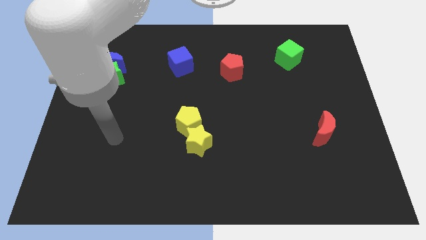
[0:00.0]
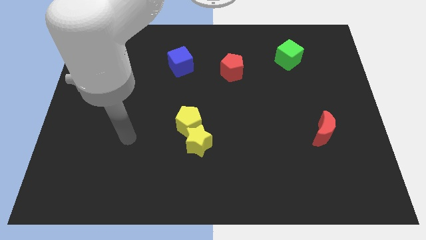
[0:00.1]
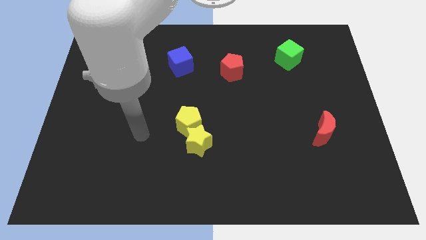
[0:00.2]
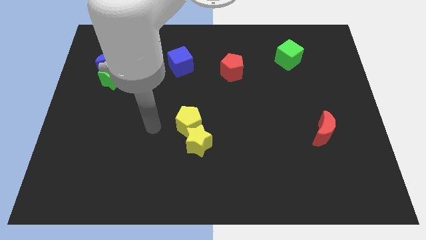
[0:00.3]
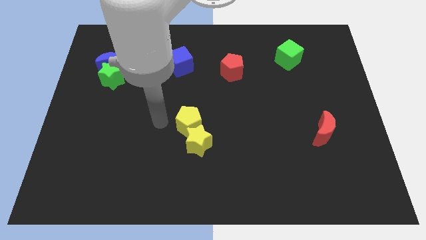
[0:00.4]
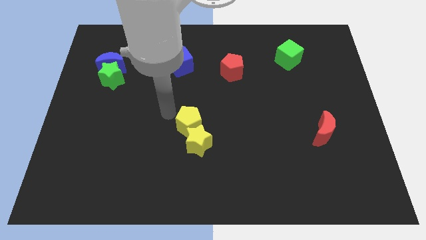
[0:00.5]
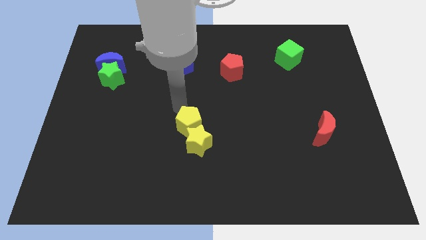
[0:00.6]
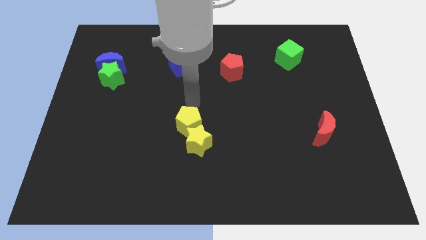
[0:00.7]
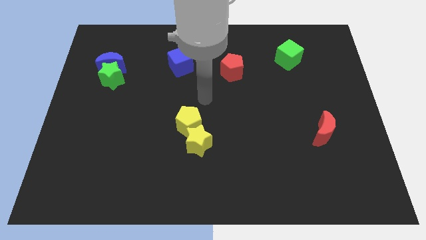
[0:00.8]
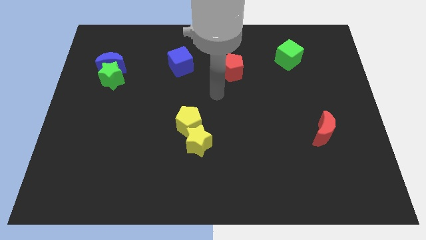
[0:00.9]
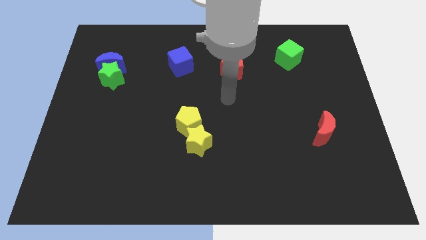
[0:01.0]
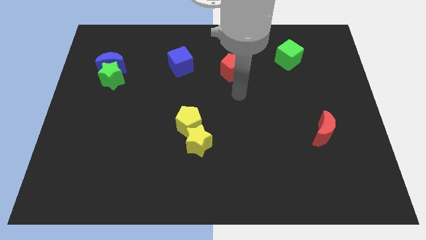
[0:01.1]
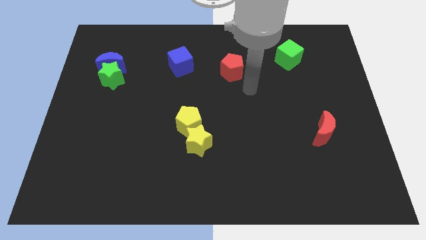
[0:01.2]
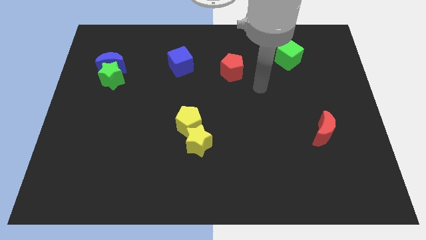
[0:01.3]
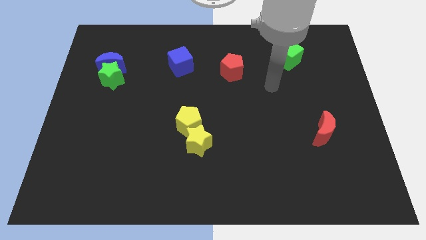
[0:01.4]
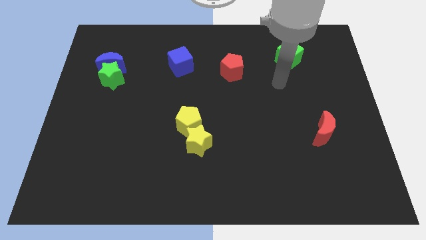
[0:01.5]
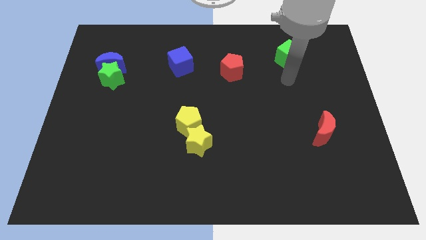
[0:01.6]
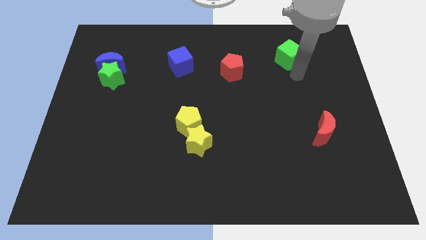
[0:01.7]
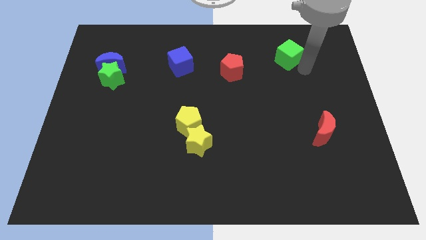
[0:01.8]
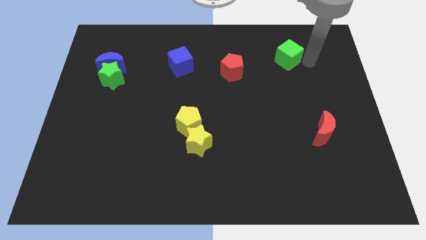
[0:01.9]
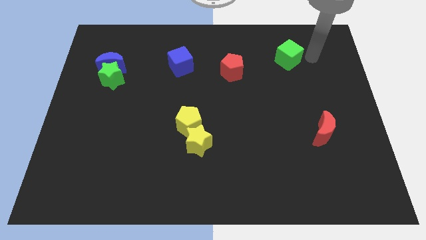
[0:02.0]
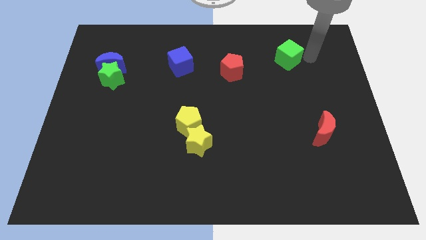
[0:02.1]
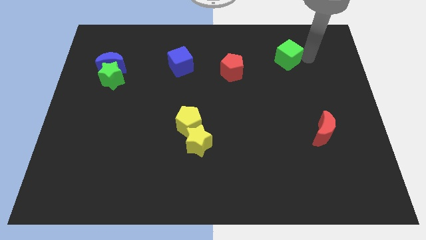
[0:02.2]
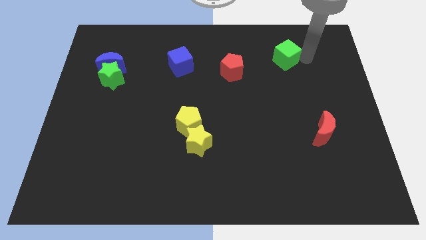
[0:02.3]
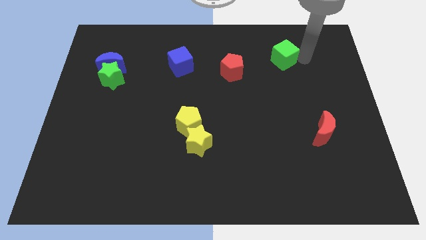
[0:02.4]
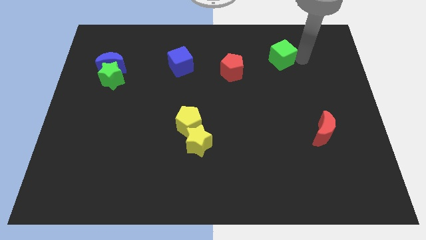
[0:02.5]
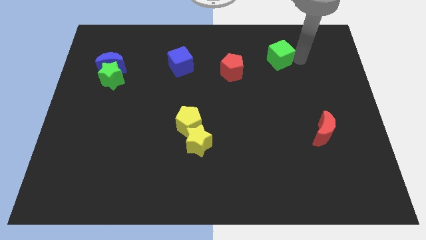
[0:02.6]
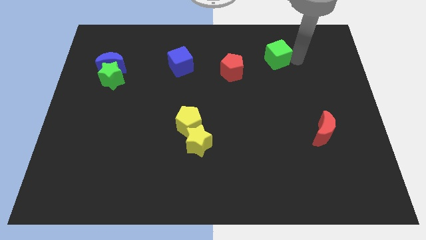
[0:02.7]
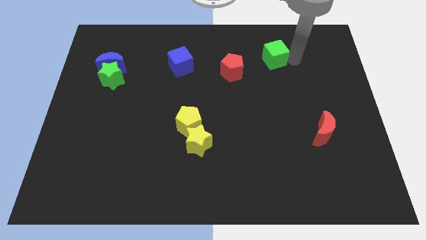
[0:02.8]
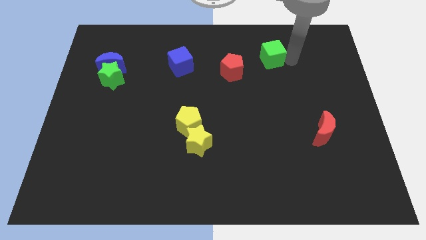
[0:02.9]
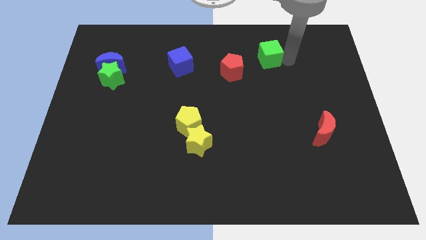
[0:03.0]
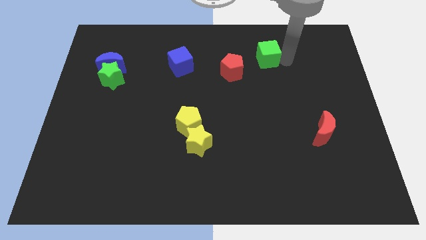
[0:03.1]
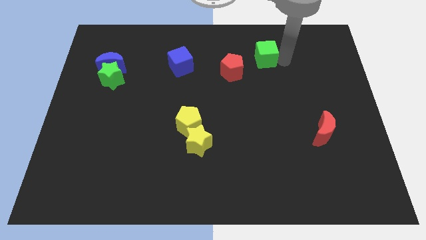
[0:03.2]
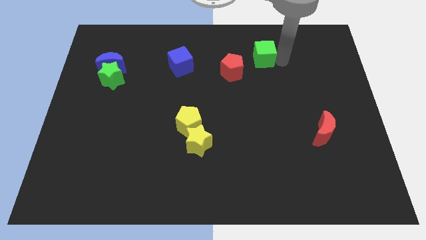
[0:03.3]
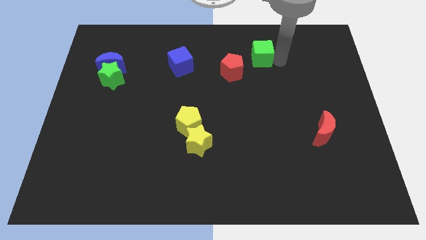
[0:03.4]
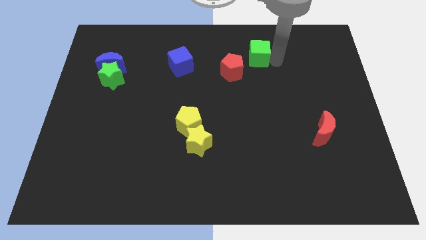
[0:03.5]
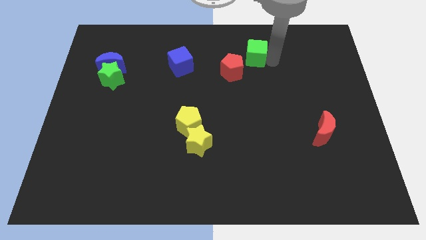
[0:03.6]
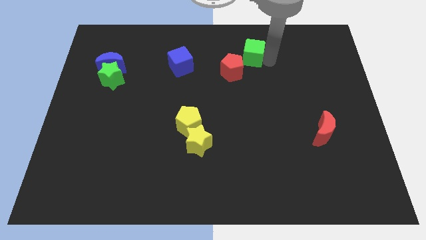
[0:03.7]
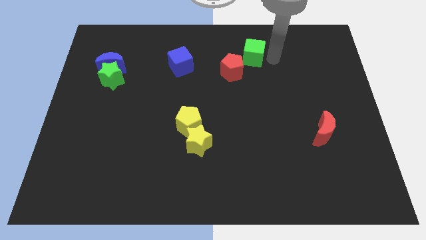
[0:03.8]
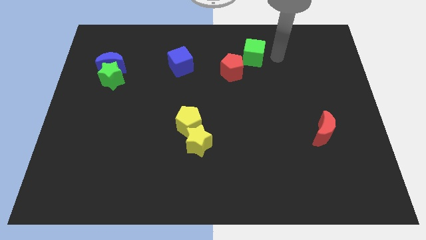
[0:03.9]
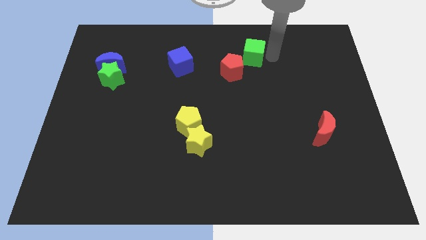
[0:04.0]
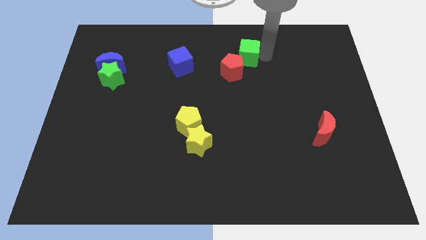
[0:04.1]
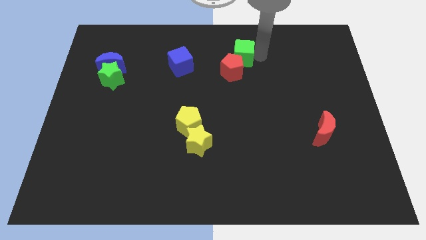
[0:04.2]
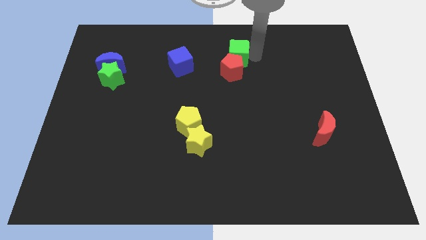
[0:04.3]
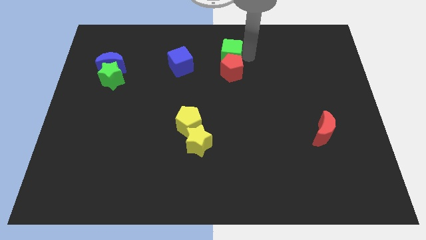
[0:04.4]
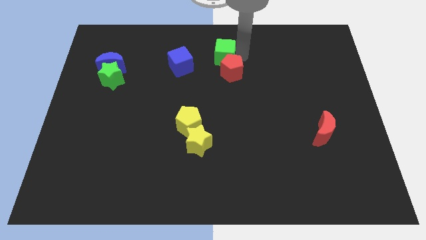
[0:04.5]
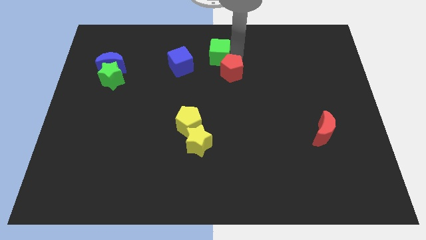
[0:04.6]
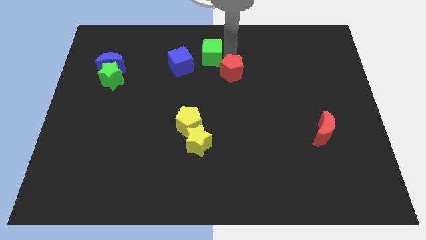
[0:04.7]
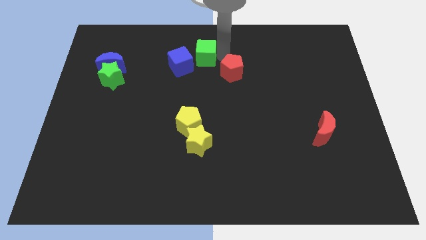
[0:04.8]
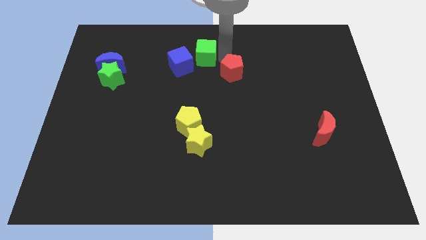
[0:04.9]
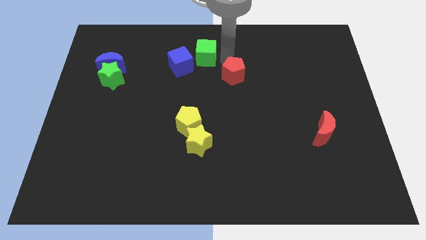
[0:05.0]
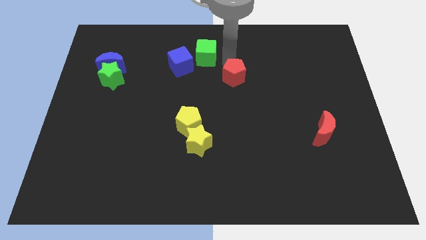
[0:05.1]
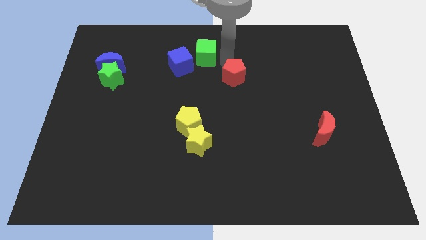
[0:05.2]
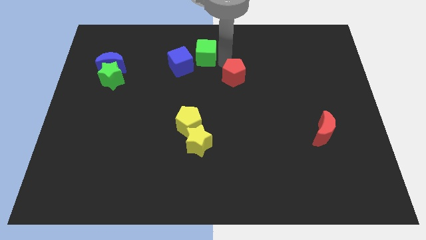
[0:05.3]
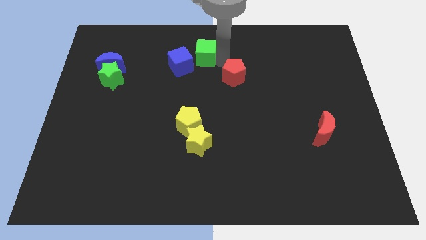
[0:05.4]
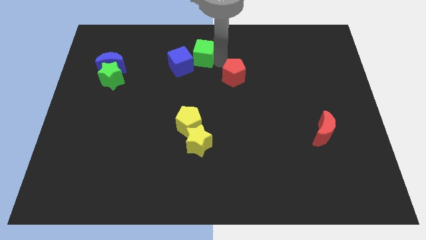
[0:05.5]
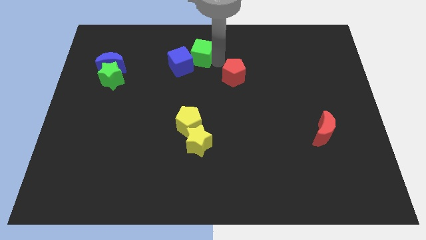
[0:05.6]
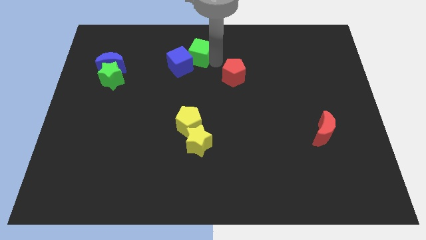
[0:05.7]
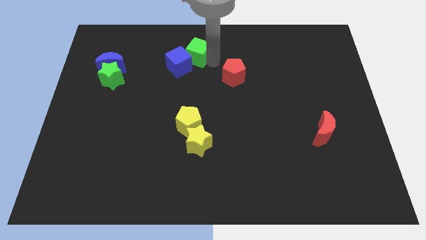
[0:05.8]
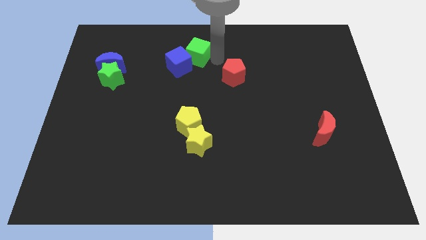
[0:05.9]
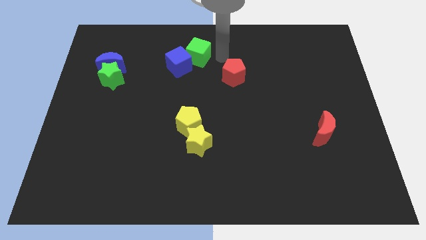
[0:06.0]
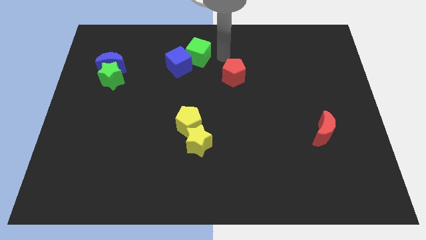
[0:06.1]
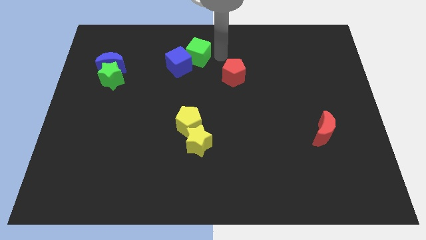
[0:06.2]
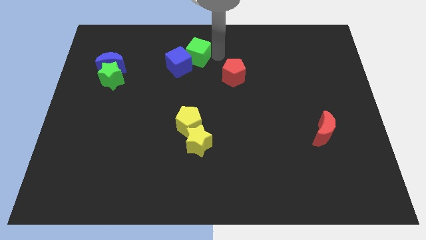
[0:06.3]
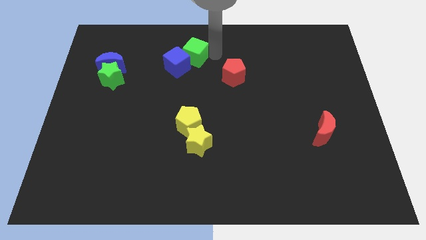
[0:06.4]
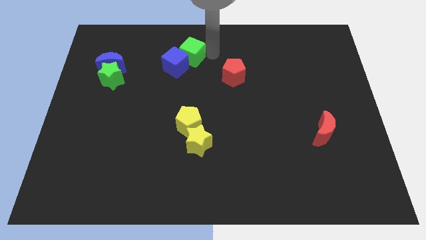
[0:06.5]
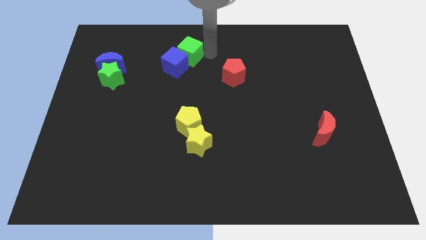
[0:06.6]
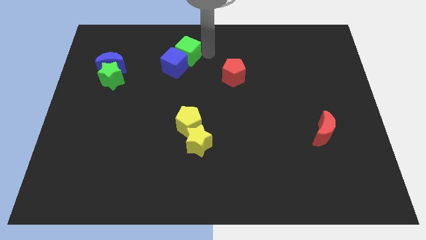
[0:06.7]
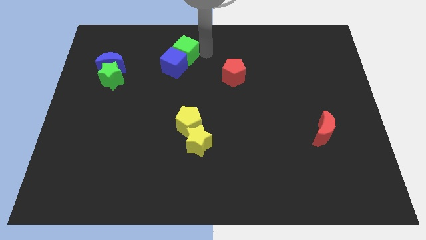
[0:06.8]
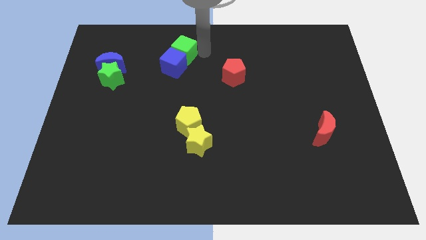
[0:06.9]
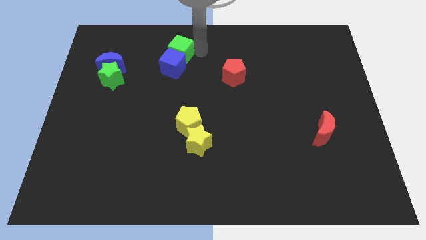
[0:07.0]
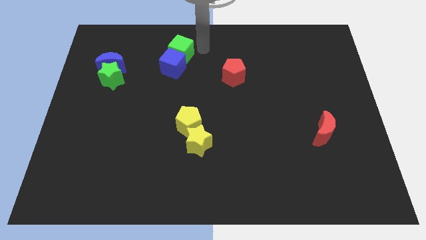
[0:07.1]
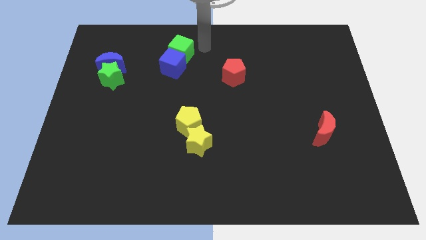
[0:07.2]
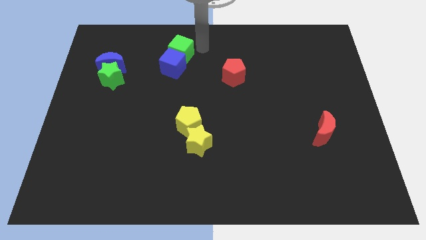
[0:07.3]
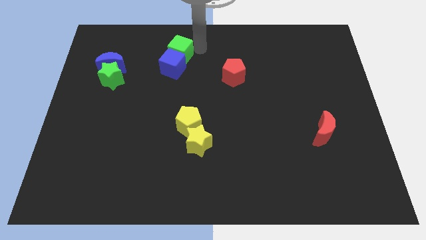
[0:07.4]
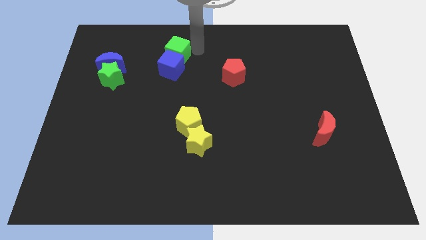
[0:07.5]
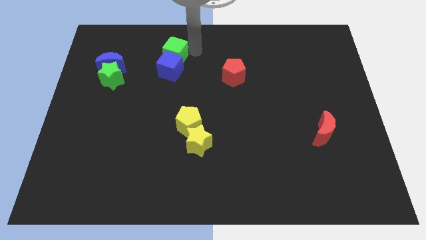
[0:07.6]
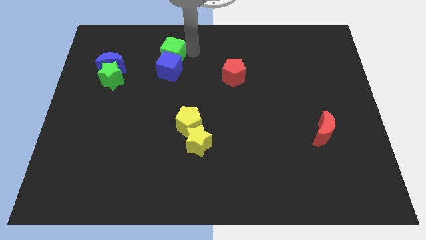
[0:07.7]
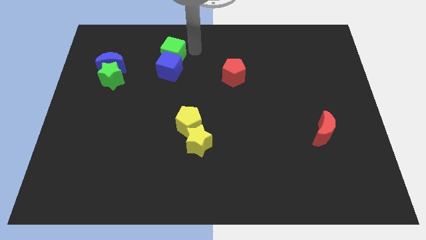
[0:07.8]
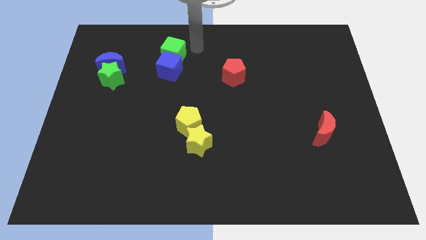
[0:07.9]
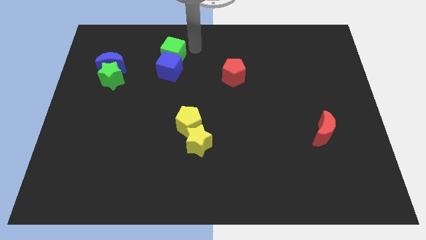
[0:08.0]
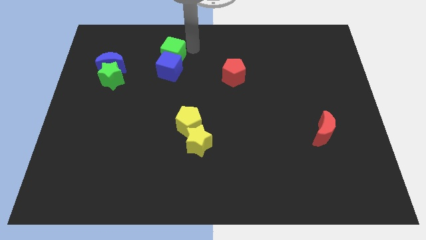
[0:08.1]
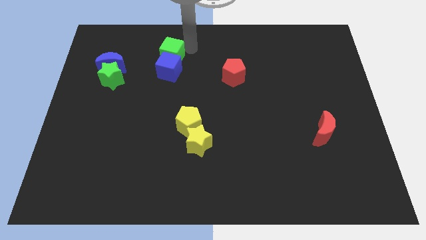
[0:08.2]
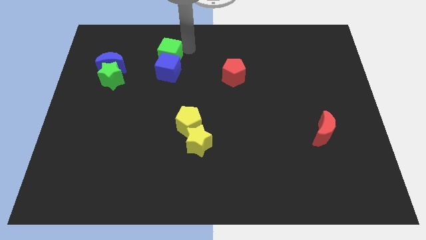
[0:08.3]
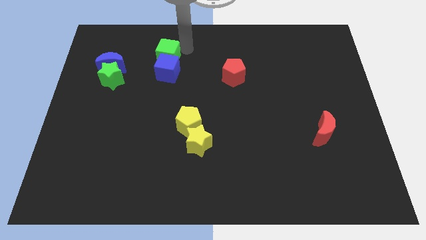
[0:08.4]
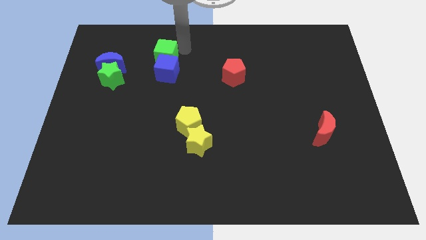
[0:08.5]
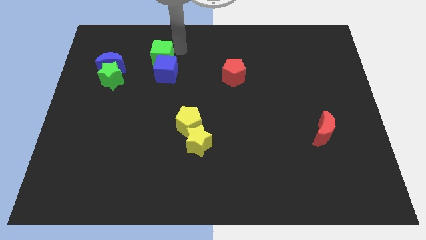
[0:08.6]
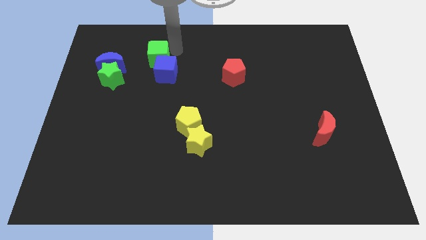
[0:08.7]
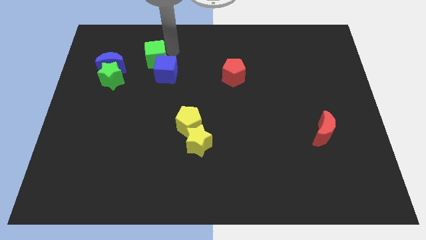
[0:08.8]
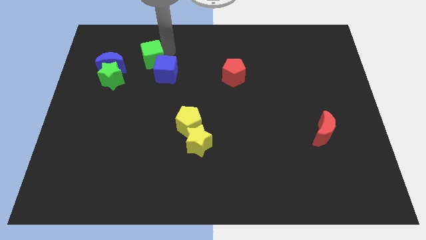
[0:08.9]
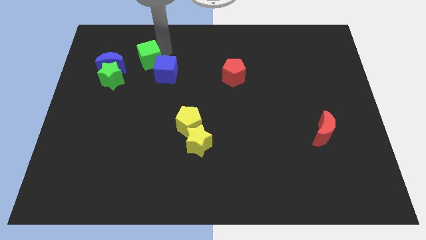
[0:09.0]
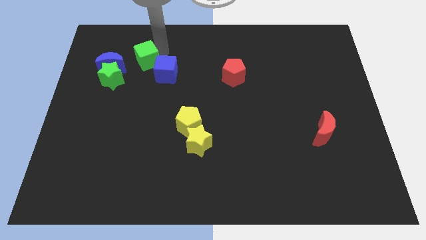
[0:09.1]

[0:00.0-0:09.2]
put the green cube just left of the blue cube
